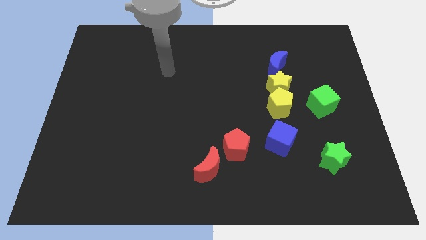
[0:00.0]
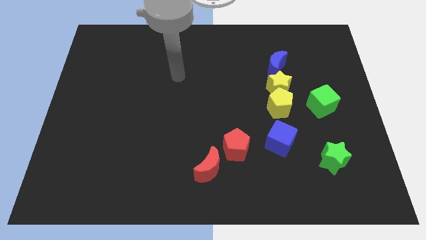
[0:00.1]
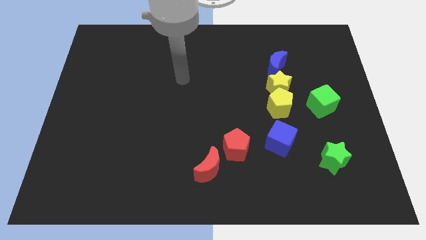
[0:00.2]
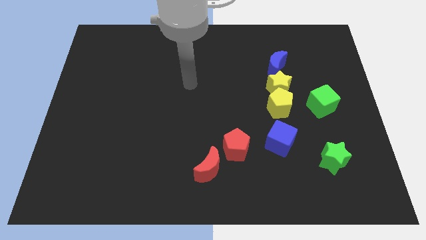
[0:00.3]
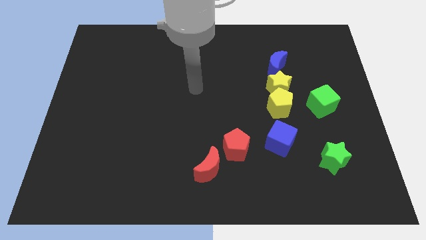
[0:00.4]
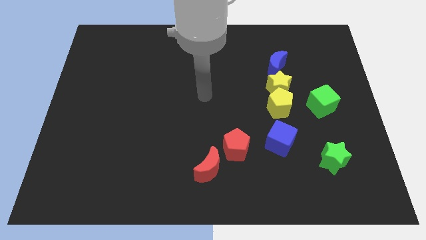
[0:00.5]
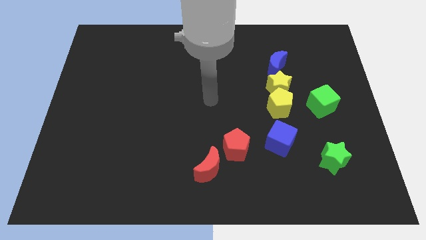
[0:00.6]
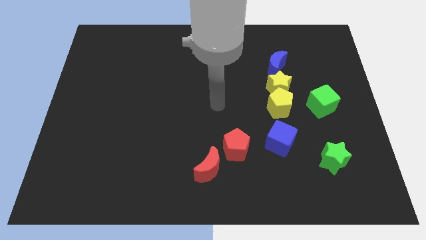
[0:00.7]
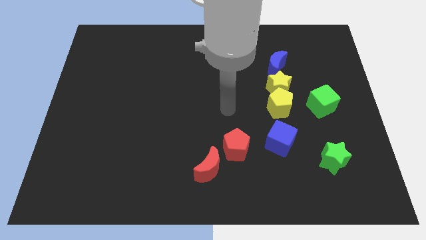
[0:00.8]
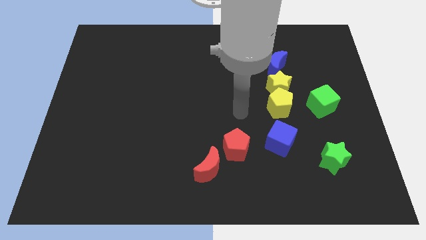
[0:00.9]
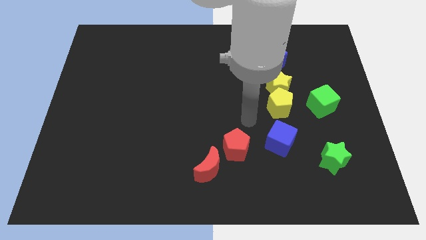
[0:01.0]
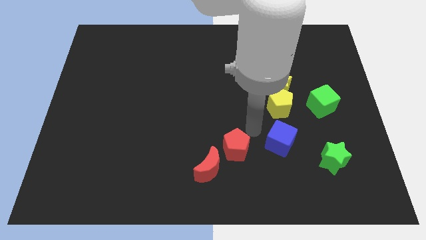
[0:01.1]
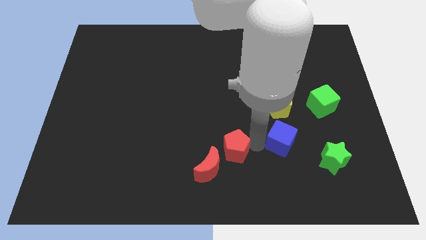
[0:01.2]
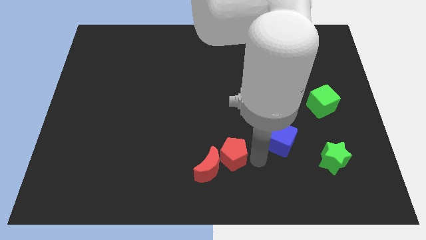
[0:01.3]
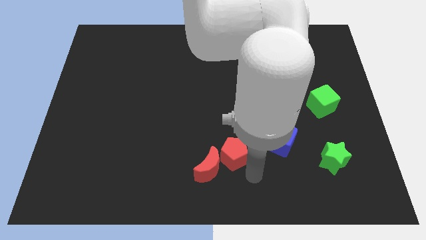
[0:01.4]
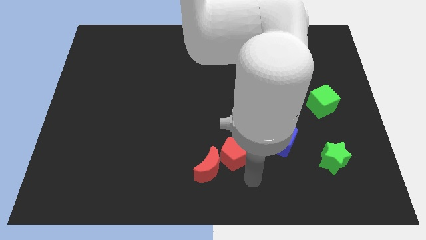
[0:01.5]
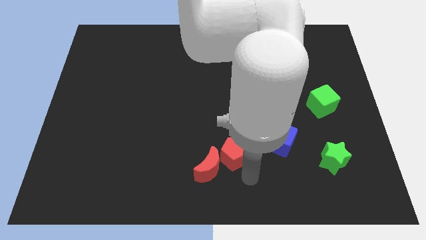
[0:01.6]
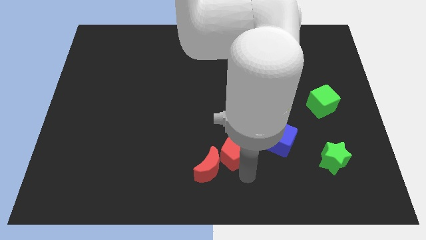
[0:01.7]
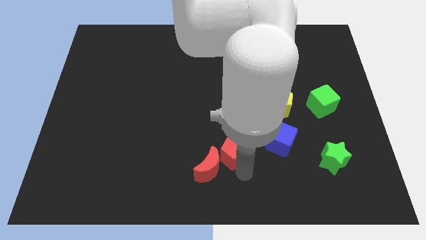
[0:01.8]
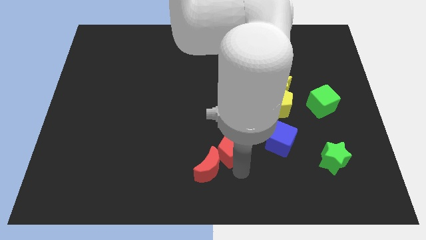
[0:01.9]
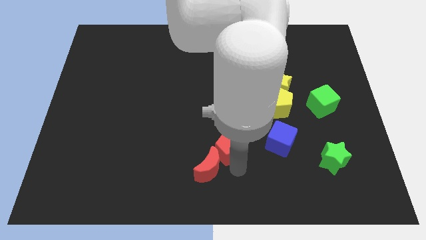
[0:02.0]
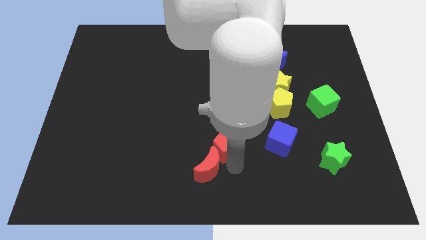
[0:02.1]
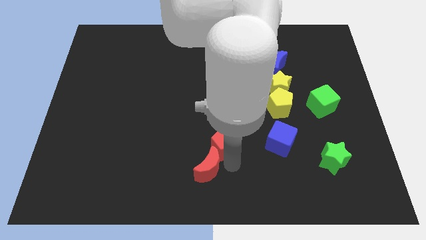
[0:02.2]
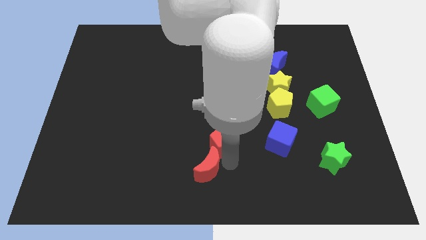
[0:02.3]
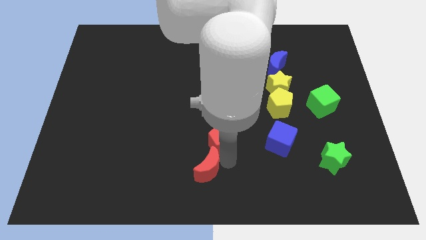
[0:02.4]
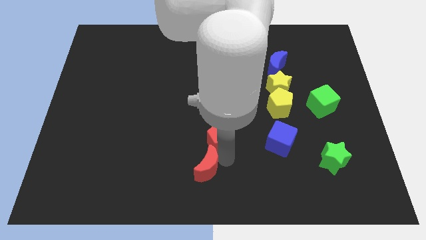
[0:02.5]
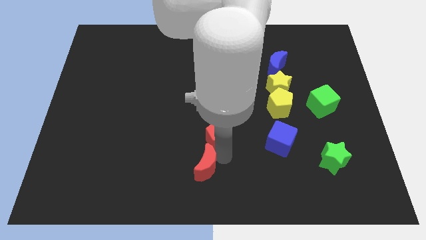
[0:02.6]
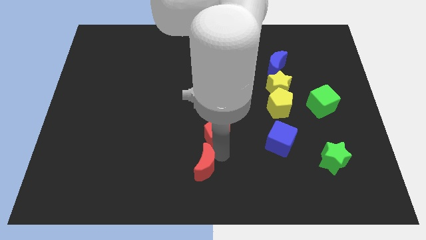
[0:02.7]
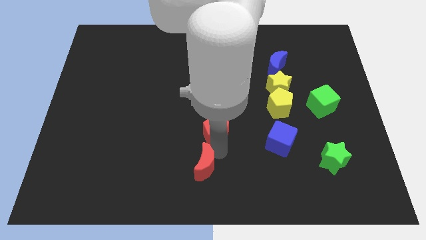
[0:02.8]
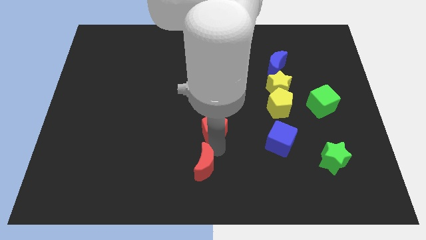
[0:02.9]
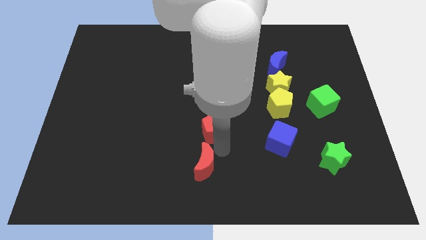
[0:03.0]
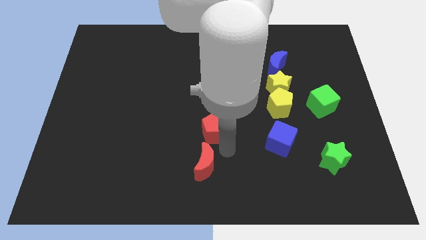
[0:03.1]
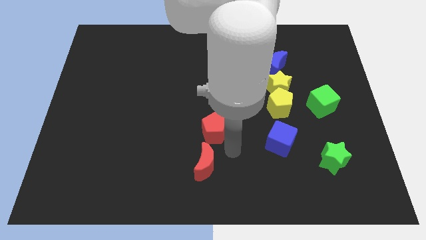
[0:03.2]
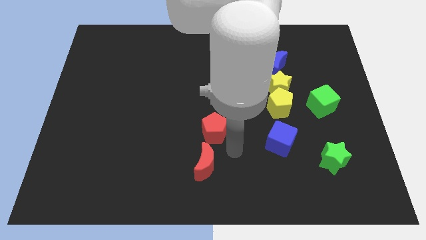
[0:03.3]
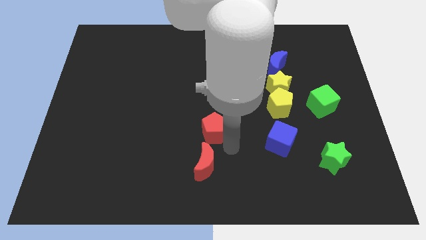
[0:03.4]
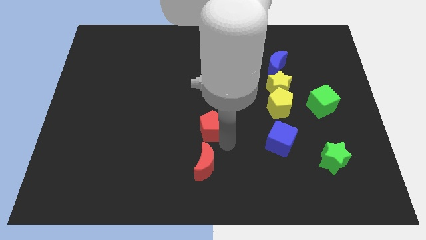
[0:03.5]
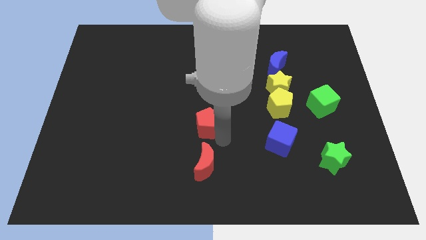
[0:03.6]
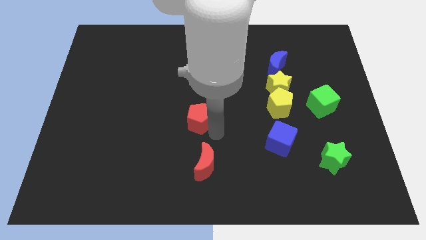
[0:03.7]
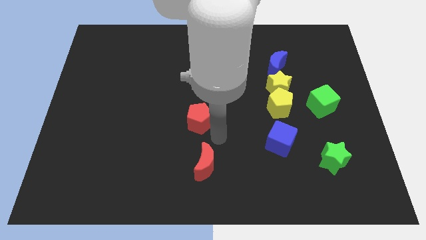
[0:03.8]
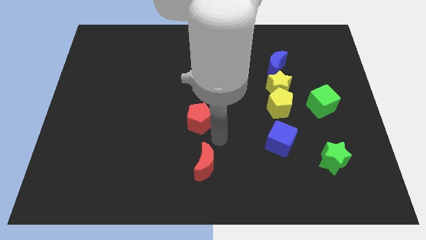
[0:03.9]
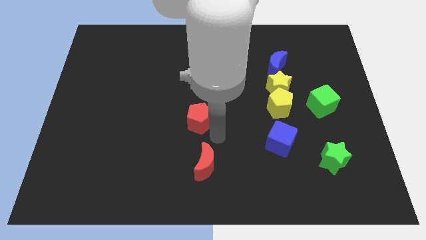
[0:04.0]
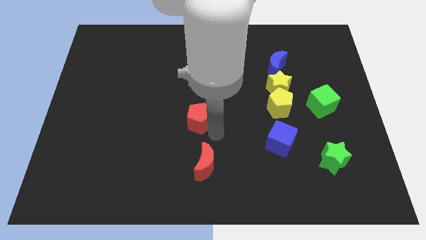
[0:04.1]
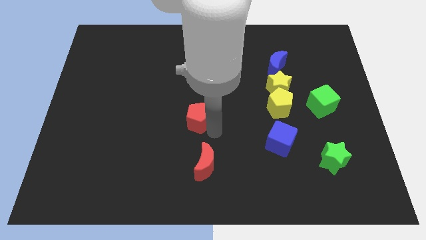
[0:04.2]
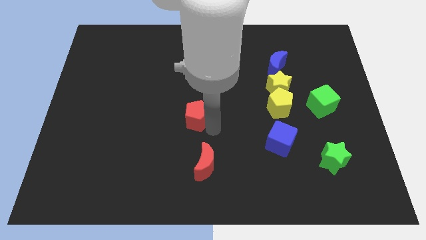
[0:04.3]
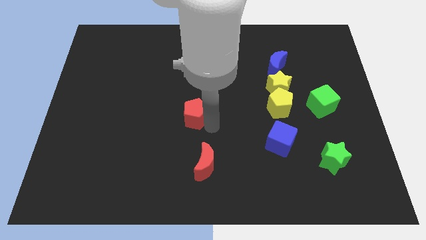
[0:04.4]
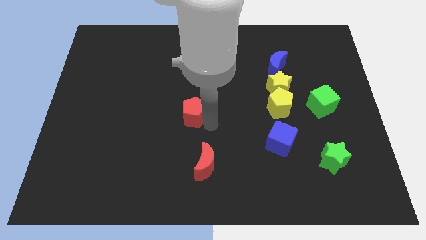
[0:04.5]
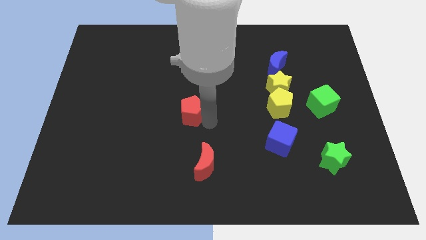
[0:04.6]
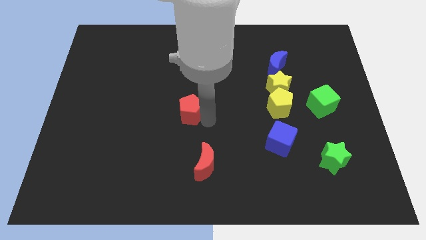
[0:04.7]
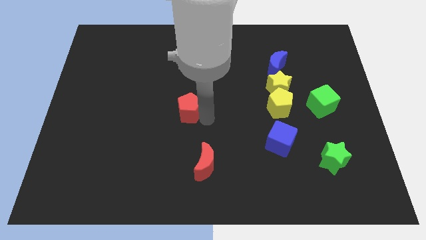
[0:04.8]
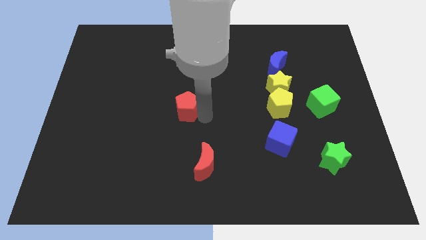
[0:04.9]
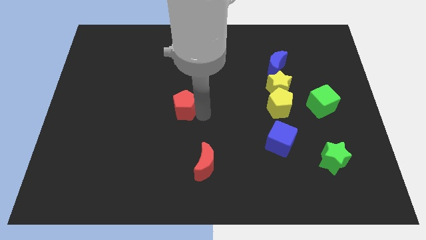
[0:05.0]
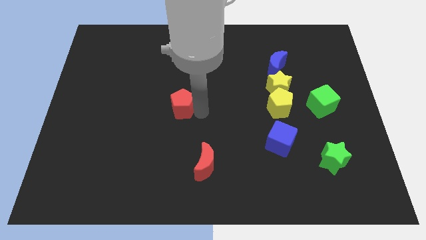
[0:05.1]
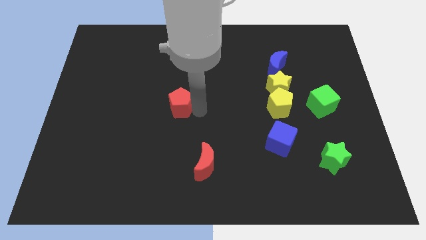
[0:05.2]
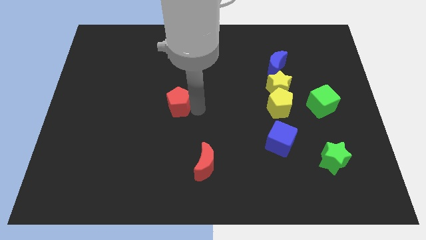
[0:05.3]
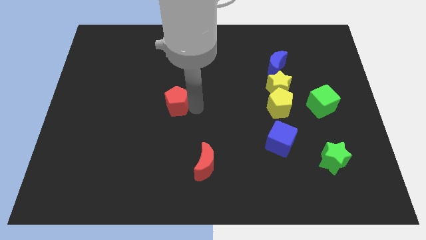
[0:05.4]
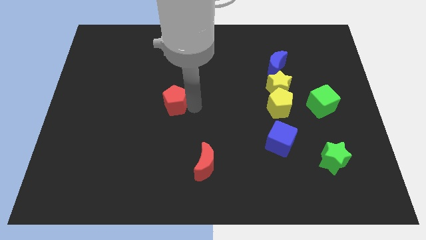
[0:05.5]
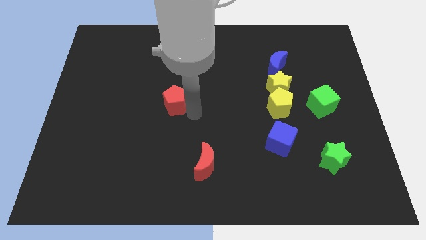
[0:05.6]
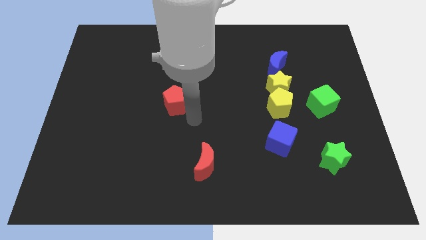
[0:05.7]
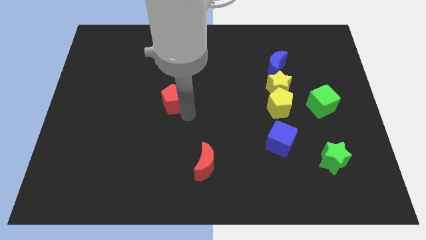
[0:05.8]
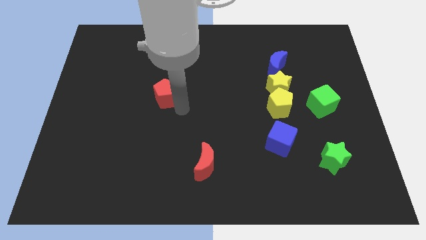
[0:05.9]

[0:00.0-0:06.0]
slide the red pentagon up and to the left

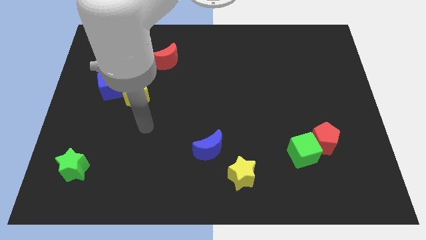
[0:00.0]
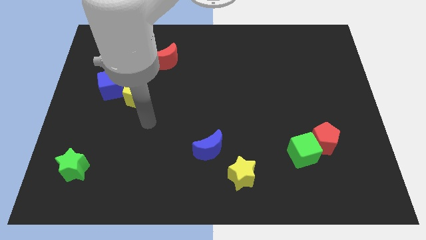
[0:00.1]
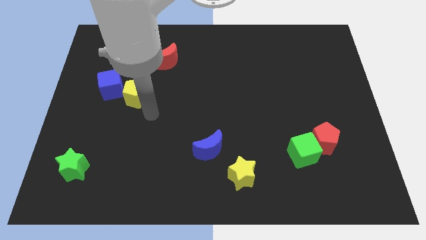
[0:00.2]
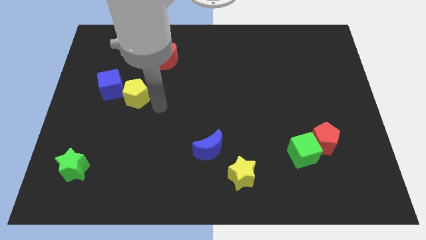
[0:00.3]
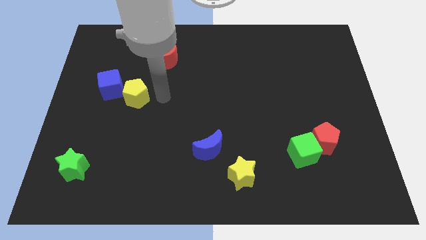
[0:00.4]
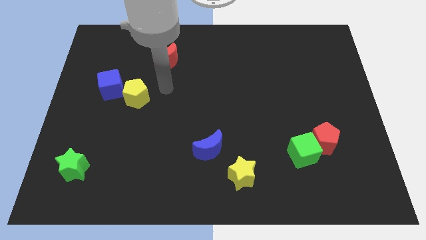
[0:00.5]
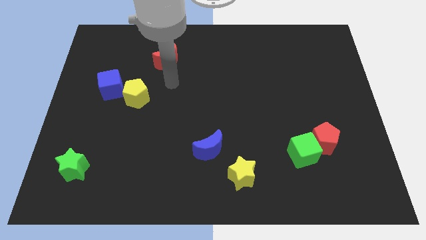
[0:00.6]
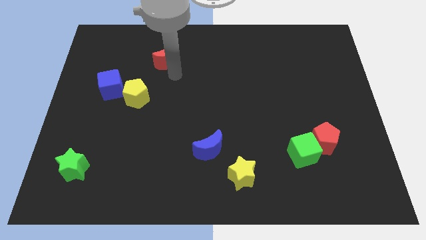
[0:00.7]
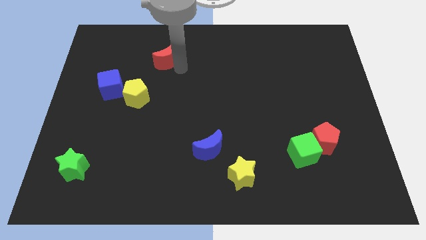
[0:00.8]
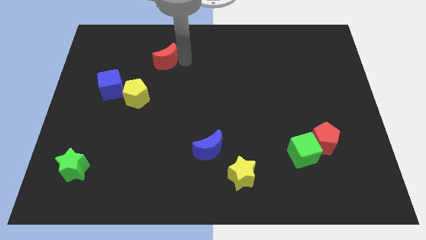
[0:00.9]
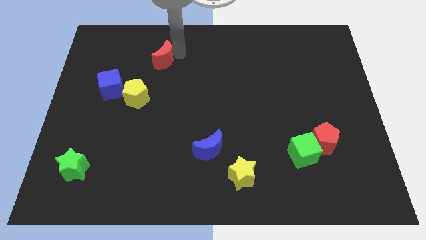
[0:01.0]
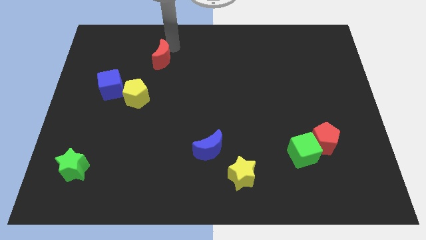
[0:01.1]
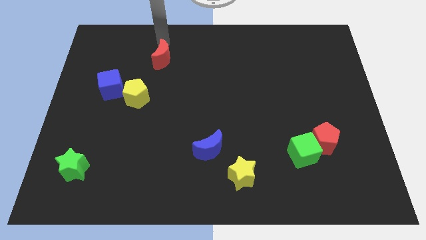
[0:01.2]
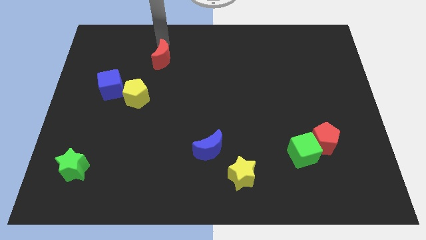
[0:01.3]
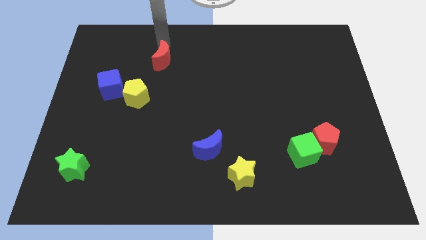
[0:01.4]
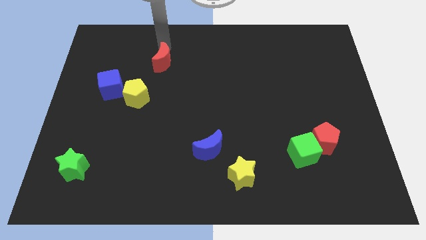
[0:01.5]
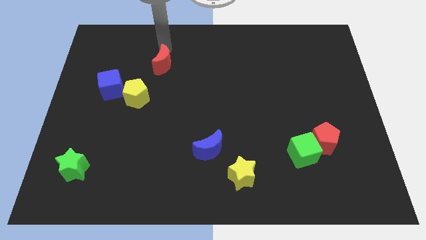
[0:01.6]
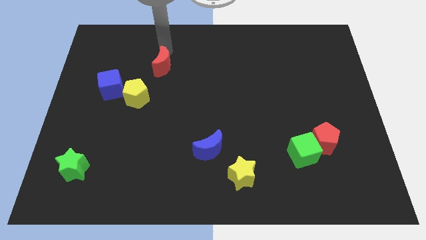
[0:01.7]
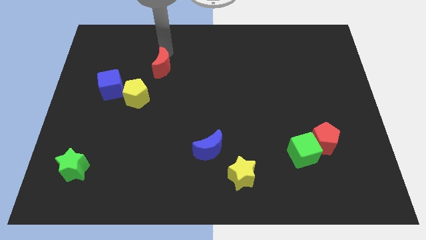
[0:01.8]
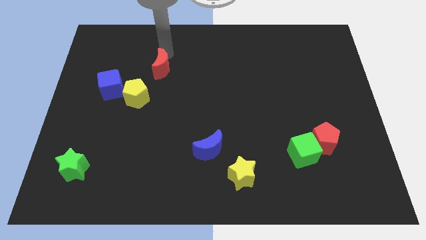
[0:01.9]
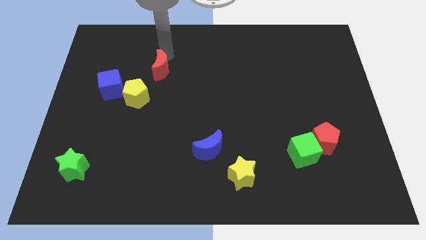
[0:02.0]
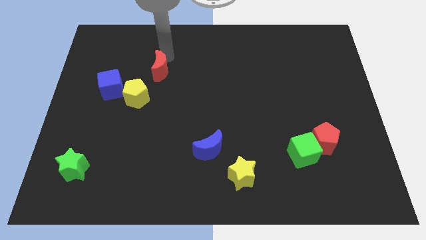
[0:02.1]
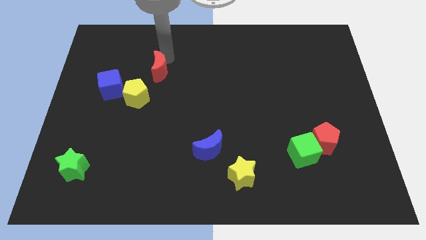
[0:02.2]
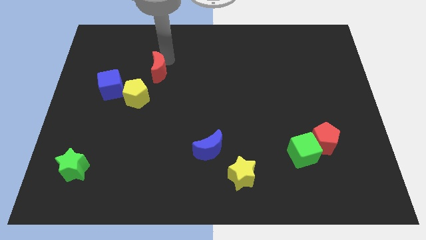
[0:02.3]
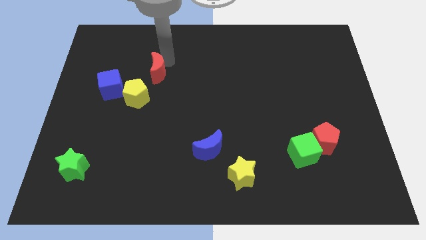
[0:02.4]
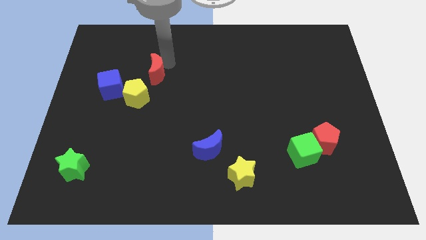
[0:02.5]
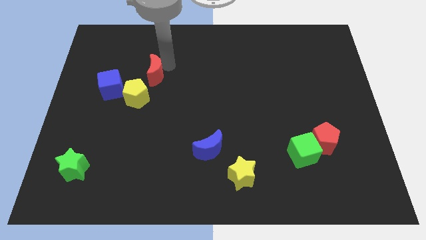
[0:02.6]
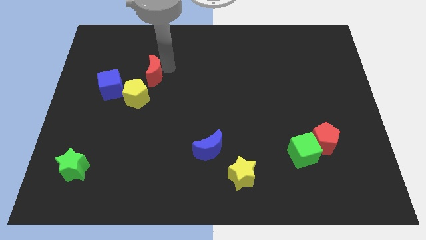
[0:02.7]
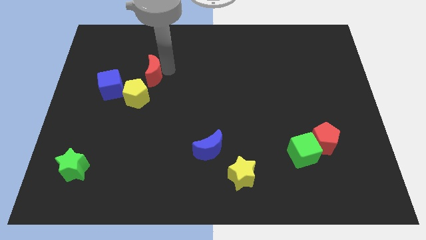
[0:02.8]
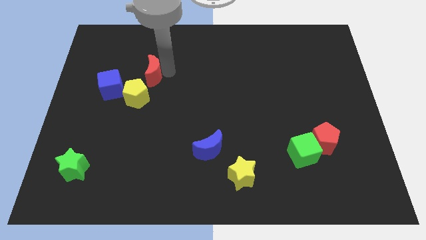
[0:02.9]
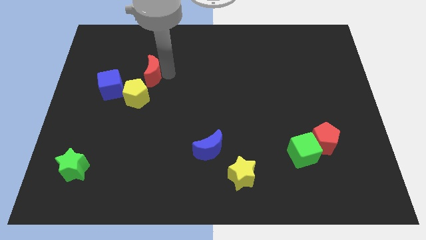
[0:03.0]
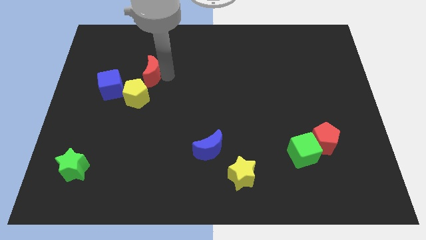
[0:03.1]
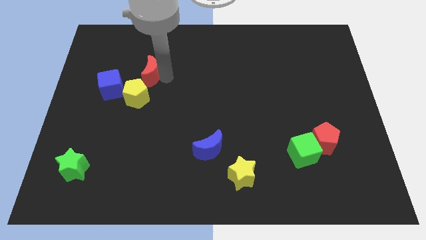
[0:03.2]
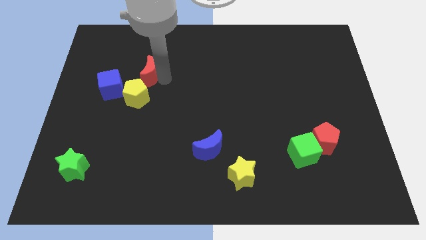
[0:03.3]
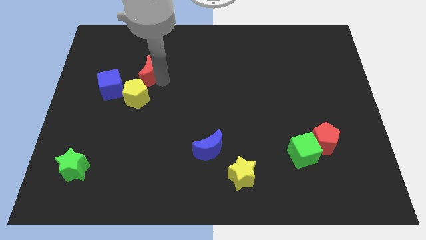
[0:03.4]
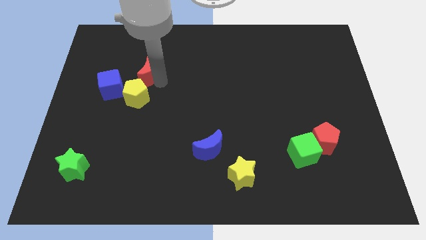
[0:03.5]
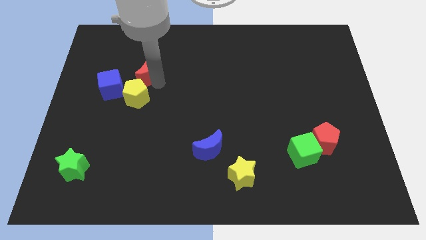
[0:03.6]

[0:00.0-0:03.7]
slide the red moon downwards and to the left a little
